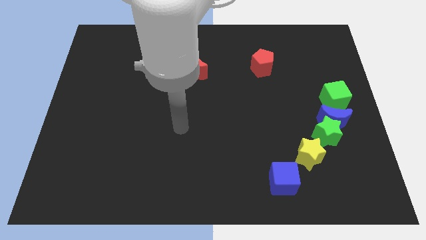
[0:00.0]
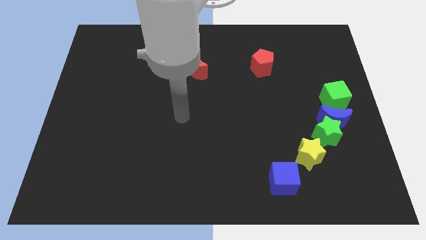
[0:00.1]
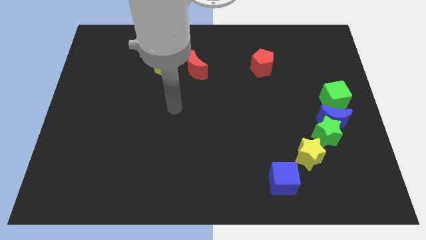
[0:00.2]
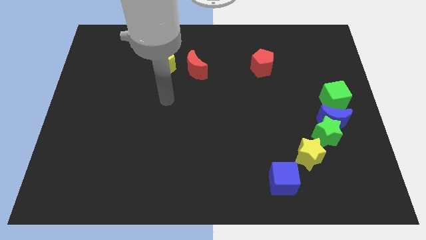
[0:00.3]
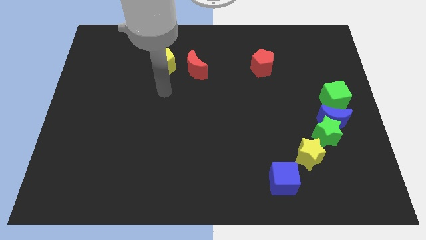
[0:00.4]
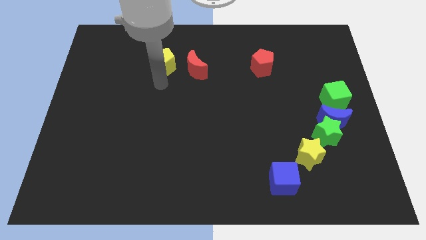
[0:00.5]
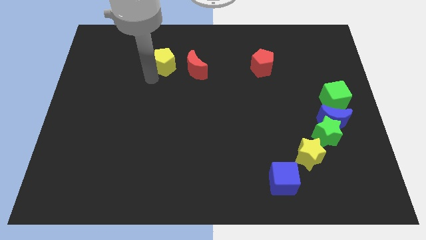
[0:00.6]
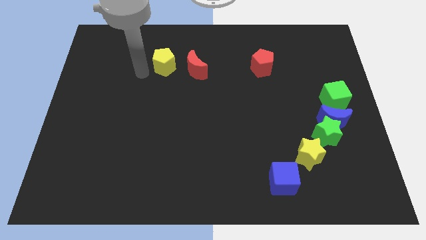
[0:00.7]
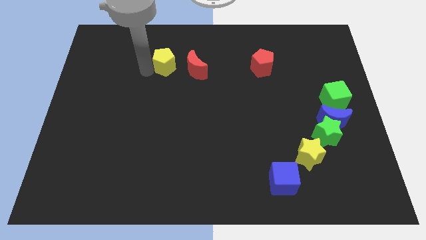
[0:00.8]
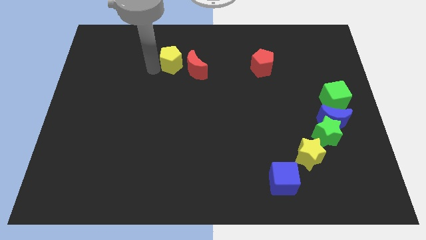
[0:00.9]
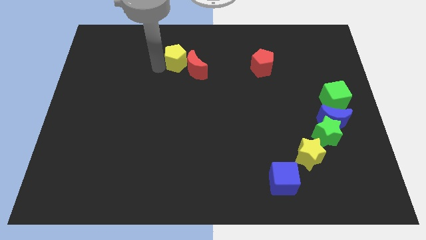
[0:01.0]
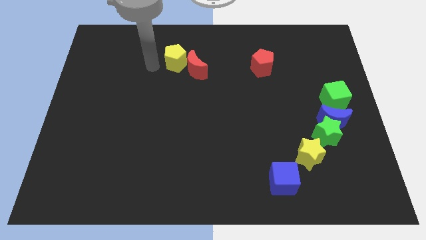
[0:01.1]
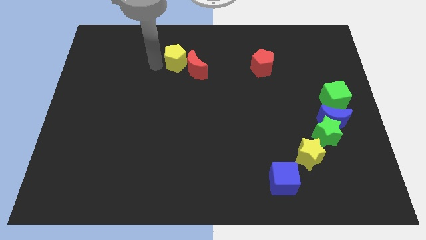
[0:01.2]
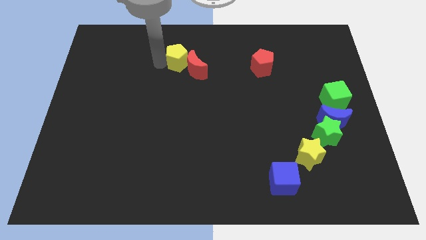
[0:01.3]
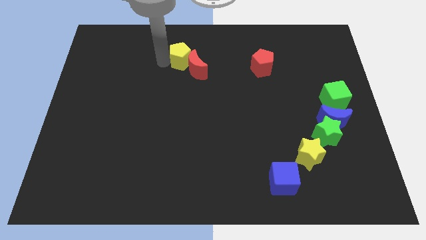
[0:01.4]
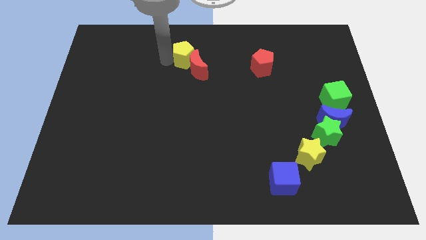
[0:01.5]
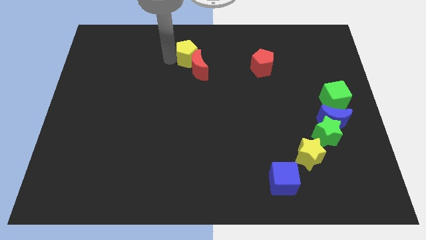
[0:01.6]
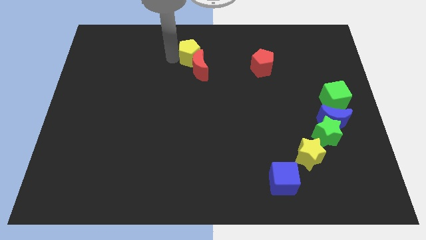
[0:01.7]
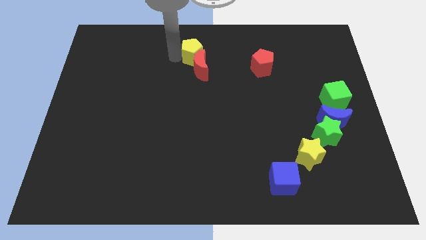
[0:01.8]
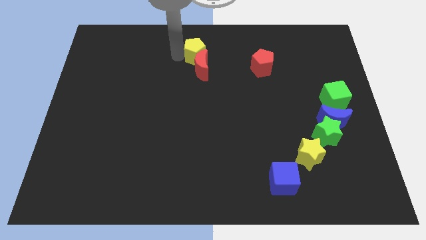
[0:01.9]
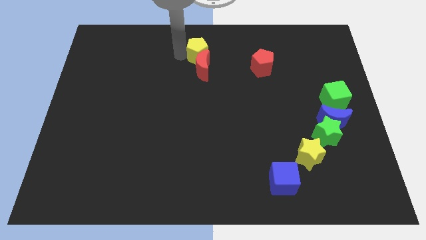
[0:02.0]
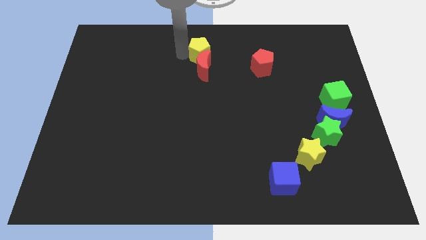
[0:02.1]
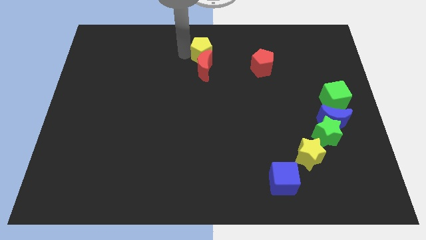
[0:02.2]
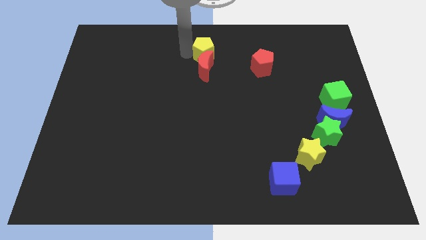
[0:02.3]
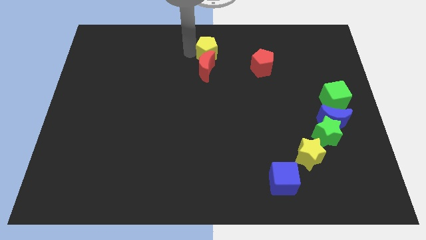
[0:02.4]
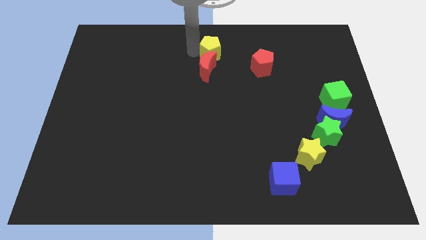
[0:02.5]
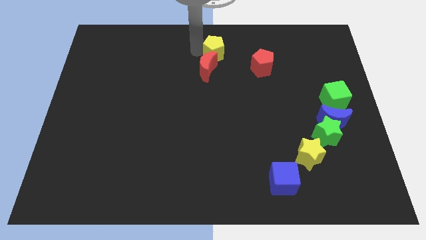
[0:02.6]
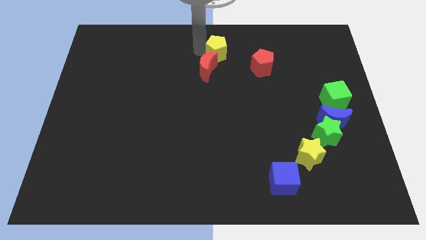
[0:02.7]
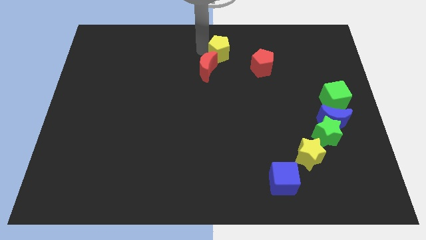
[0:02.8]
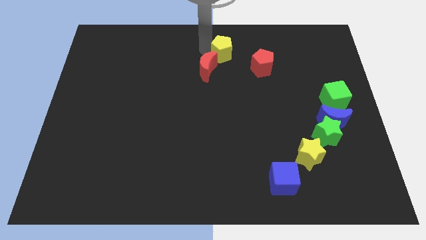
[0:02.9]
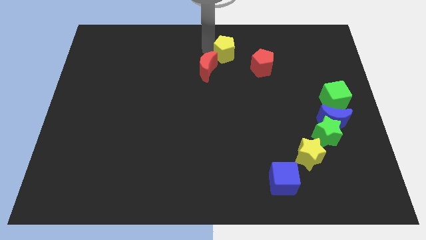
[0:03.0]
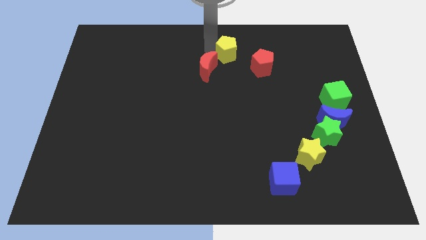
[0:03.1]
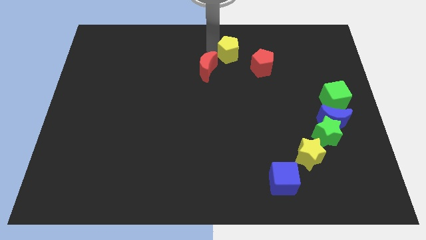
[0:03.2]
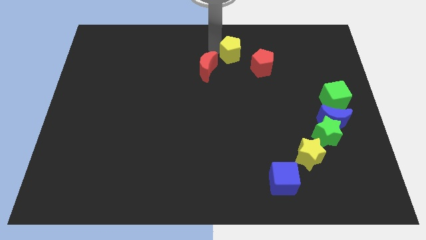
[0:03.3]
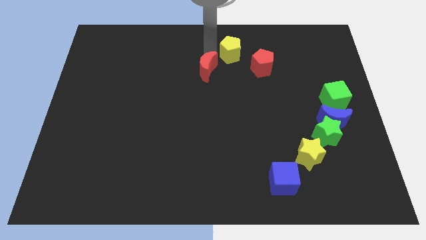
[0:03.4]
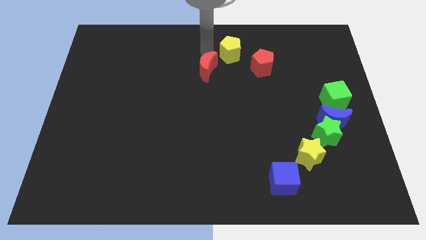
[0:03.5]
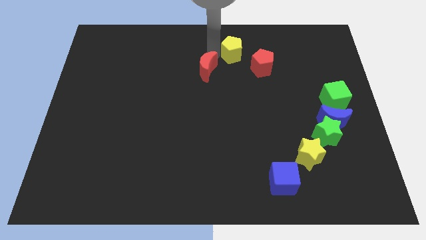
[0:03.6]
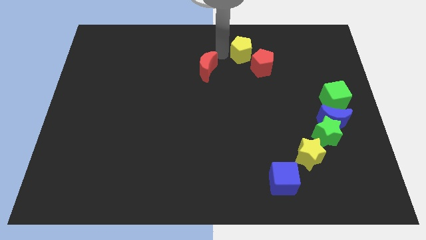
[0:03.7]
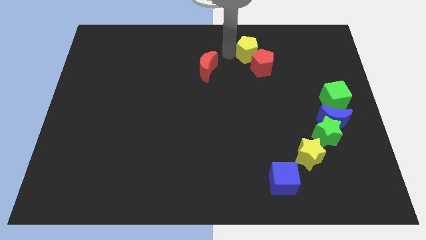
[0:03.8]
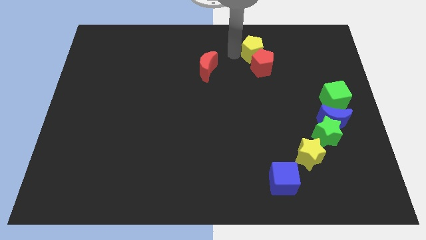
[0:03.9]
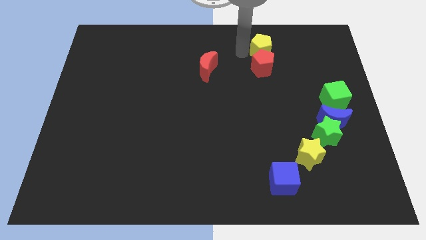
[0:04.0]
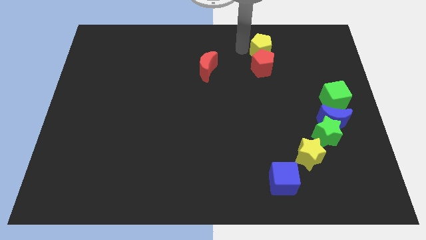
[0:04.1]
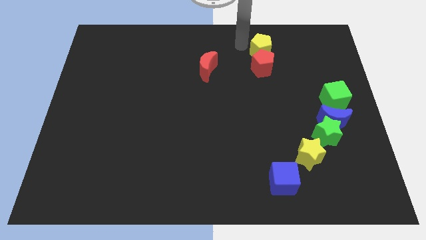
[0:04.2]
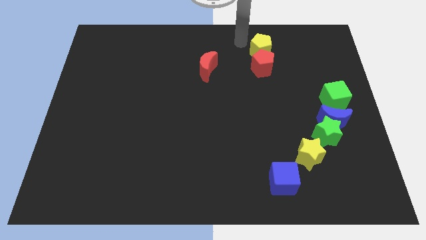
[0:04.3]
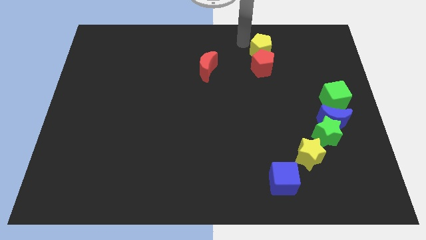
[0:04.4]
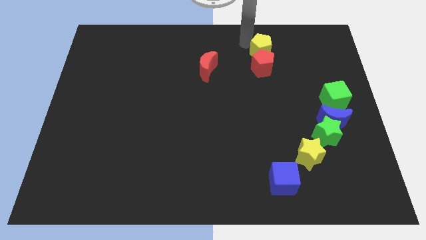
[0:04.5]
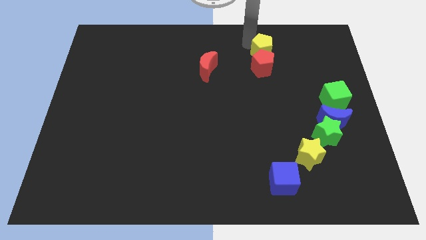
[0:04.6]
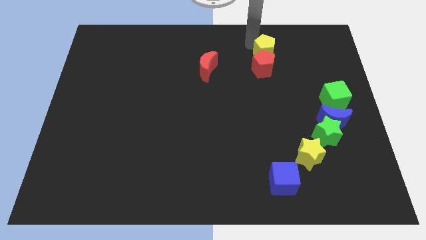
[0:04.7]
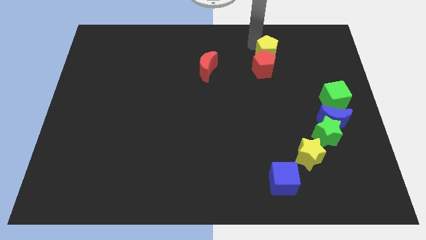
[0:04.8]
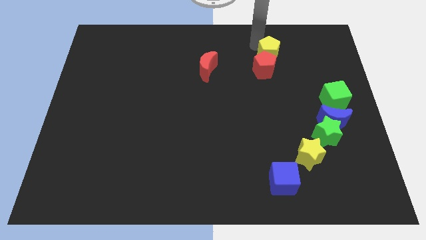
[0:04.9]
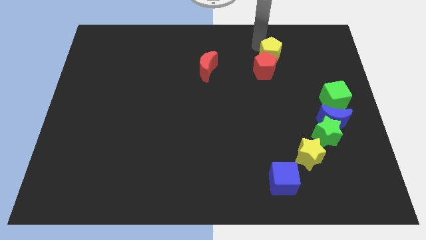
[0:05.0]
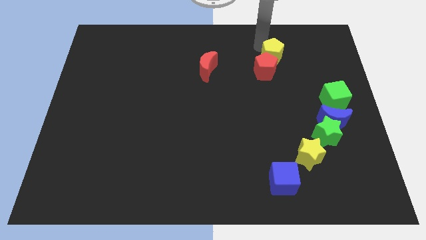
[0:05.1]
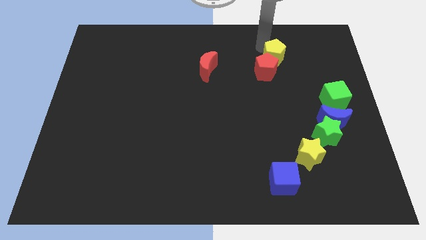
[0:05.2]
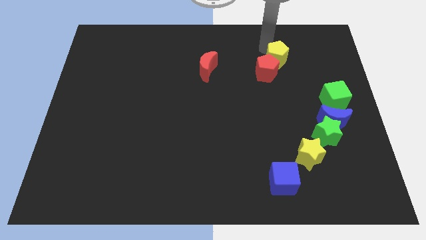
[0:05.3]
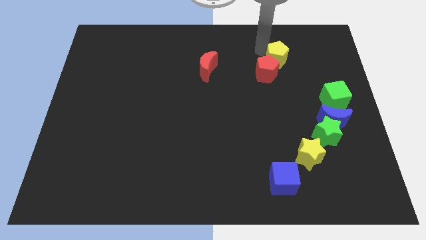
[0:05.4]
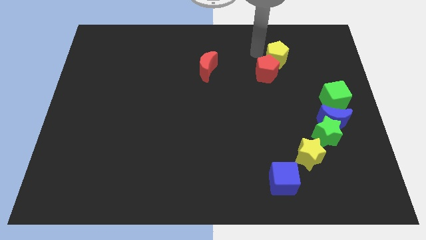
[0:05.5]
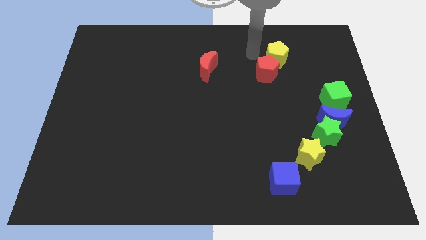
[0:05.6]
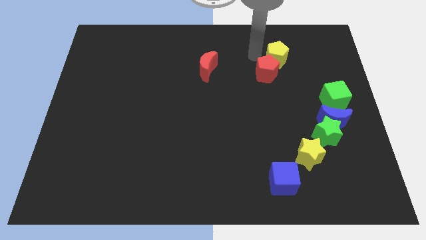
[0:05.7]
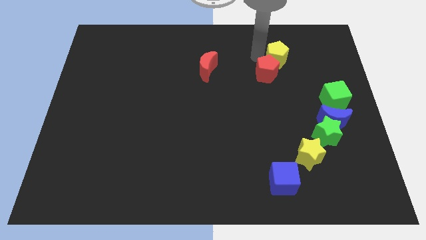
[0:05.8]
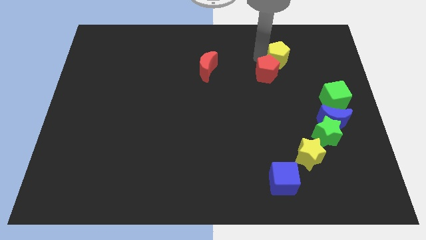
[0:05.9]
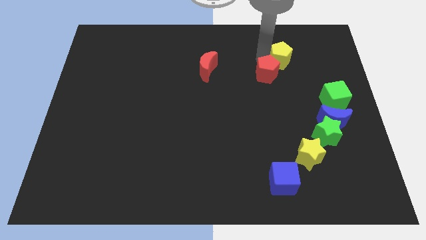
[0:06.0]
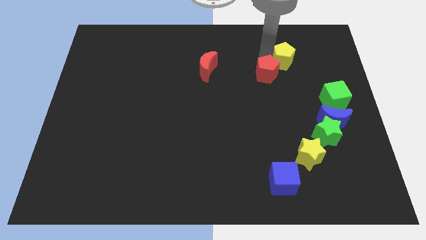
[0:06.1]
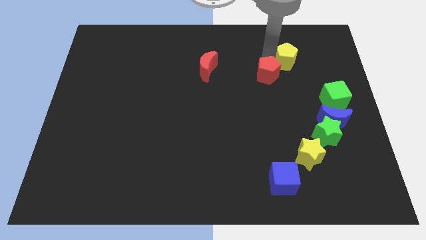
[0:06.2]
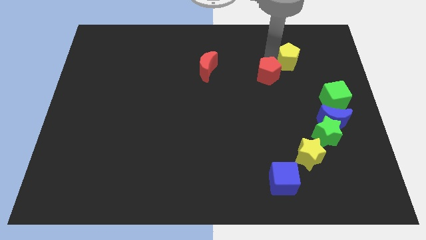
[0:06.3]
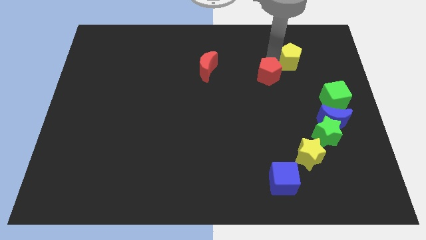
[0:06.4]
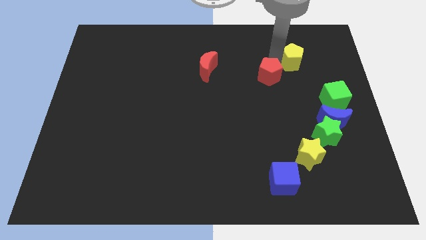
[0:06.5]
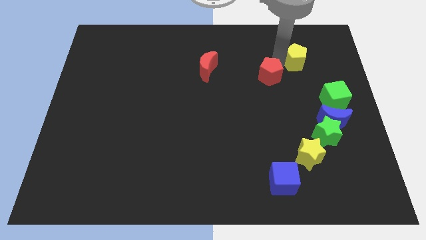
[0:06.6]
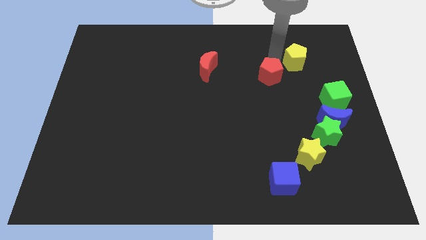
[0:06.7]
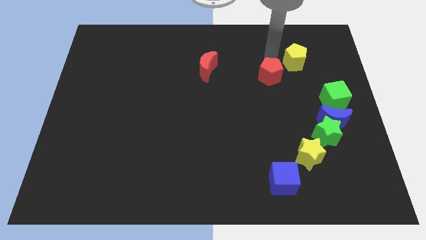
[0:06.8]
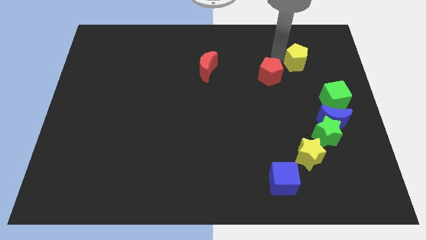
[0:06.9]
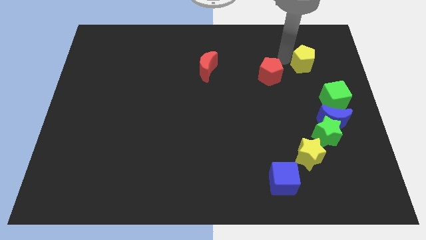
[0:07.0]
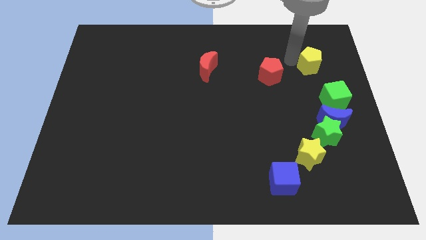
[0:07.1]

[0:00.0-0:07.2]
move the yellow pentagon to the top side of the green cube
